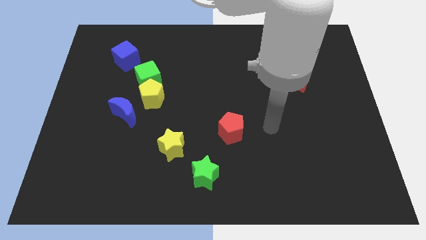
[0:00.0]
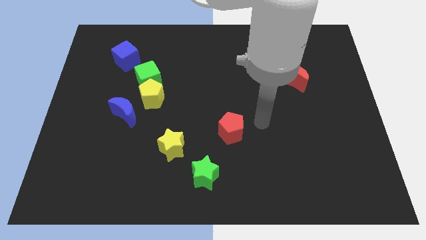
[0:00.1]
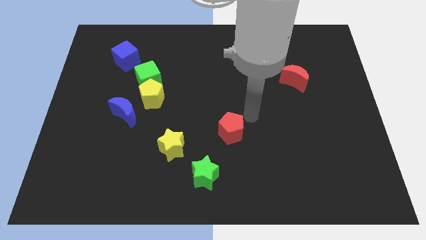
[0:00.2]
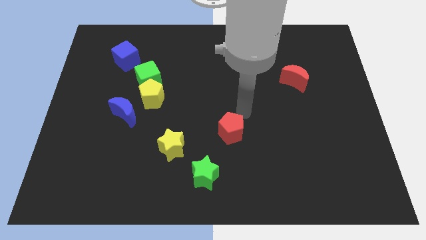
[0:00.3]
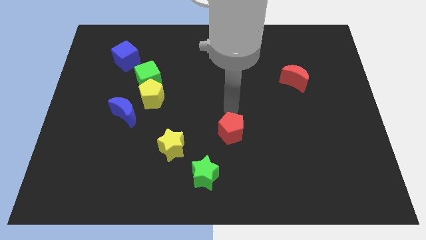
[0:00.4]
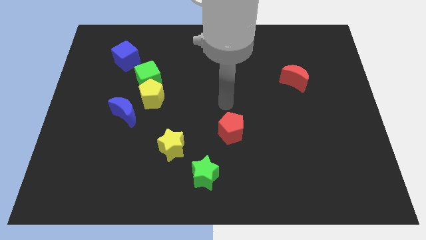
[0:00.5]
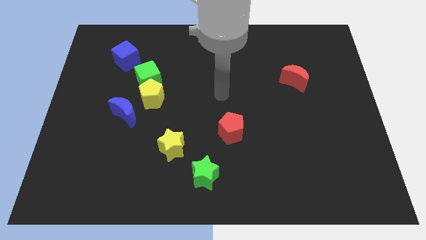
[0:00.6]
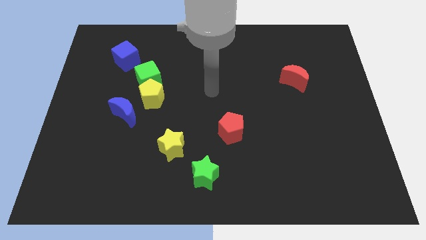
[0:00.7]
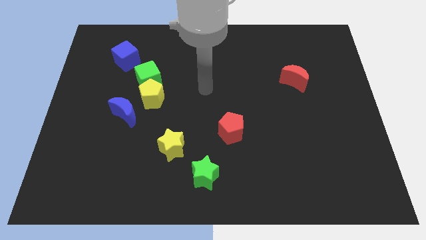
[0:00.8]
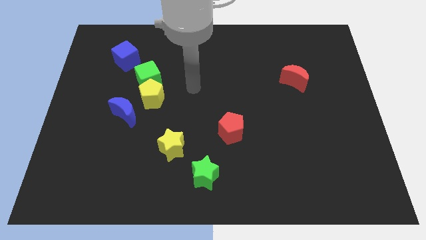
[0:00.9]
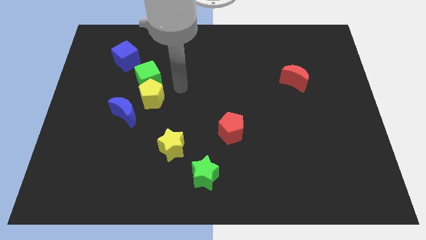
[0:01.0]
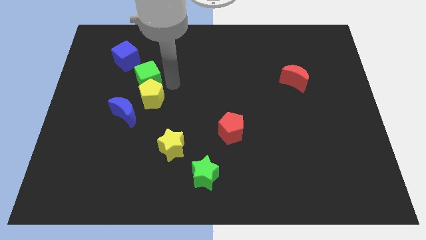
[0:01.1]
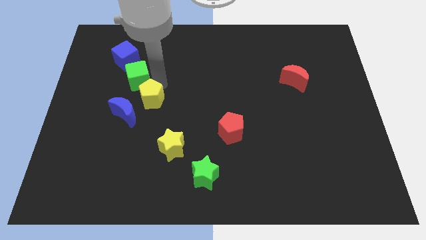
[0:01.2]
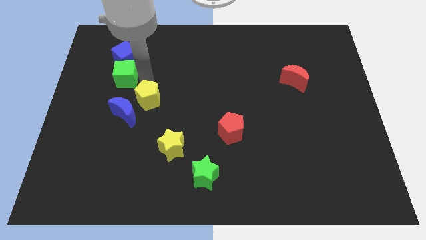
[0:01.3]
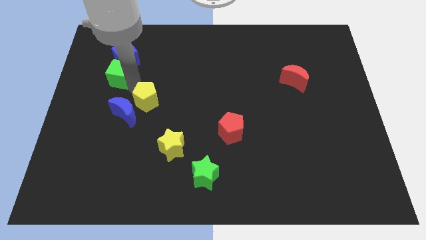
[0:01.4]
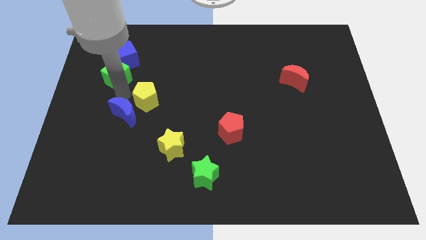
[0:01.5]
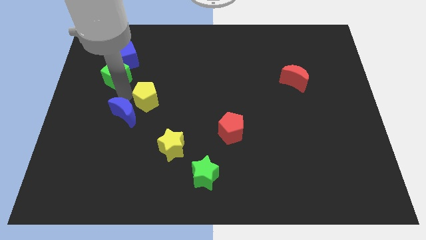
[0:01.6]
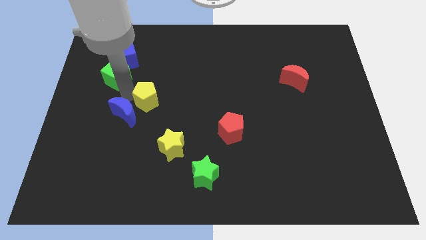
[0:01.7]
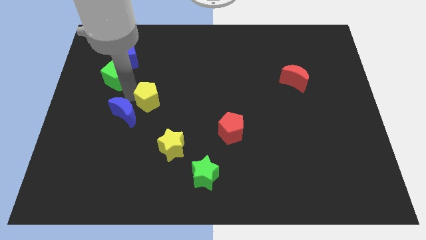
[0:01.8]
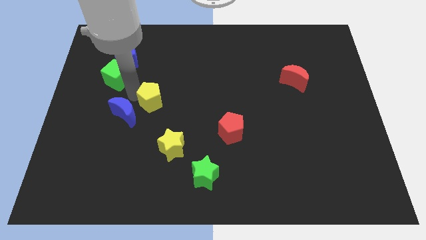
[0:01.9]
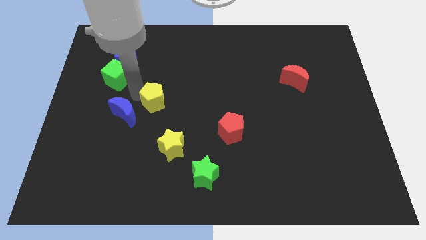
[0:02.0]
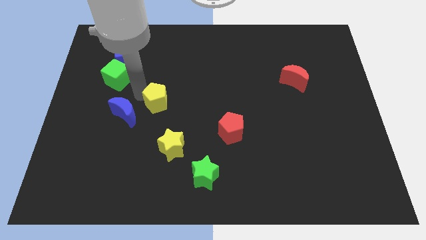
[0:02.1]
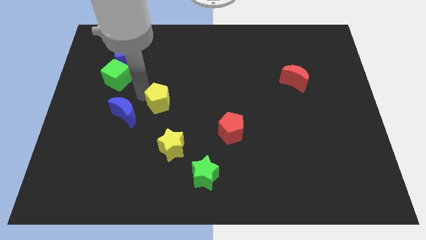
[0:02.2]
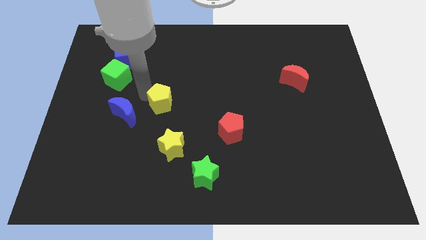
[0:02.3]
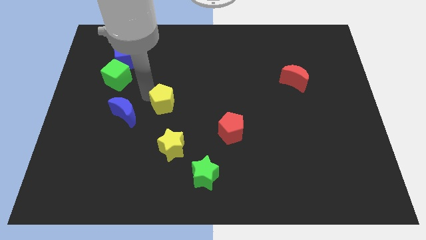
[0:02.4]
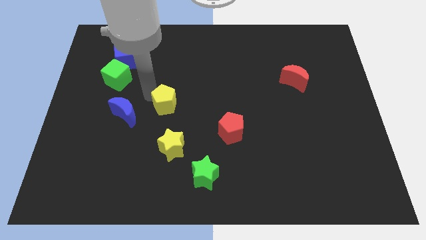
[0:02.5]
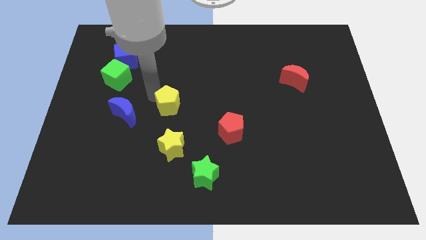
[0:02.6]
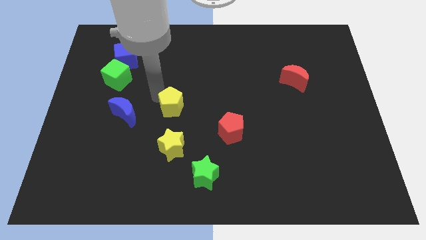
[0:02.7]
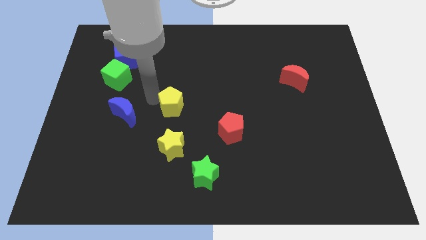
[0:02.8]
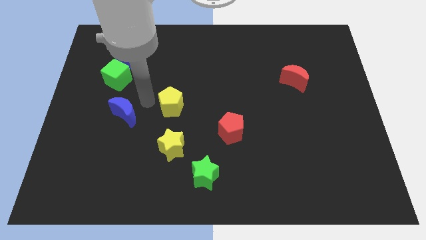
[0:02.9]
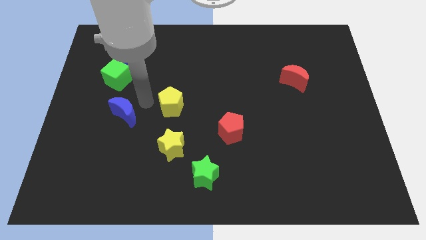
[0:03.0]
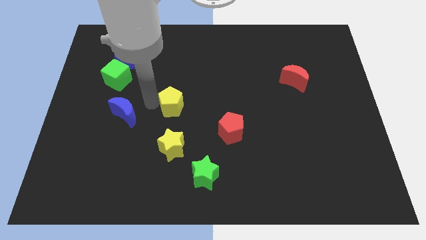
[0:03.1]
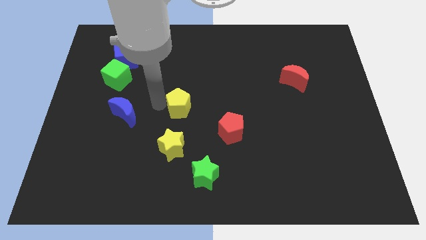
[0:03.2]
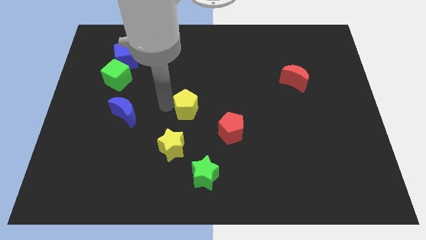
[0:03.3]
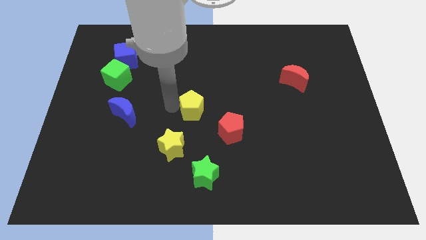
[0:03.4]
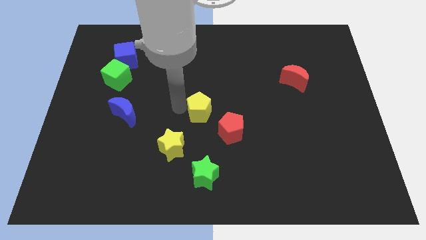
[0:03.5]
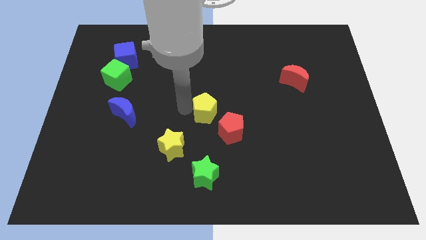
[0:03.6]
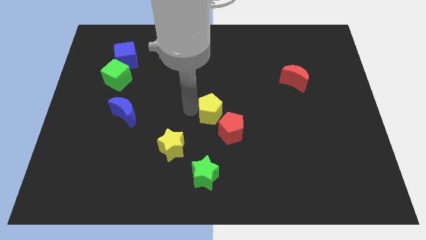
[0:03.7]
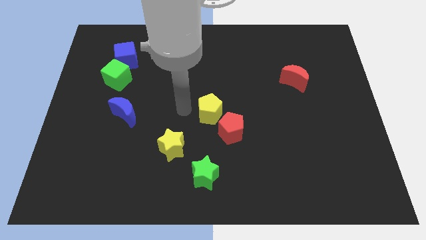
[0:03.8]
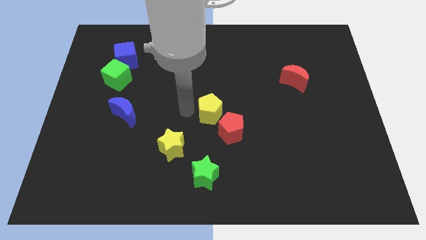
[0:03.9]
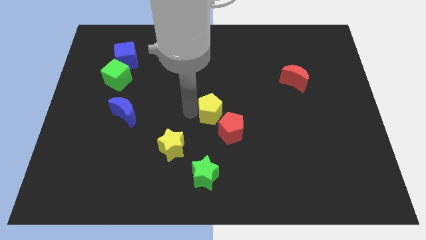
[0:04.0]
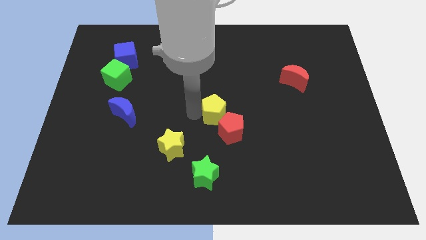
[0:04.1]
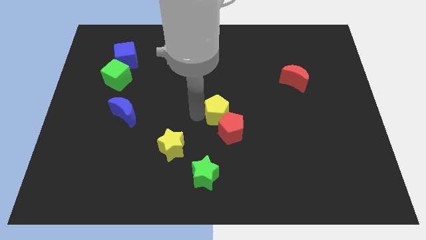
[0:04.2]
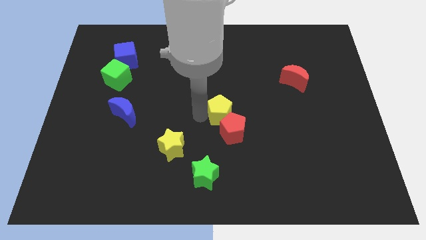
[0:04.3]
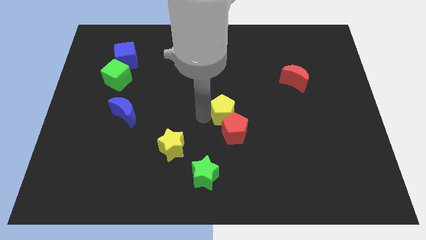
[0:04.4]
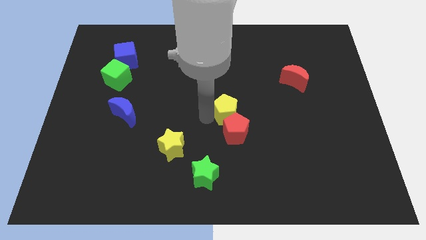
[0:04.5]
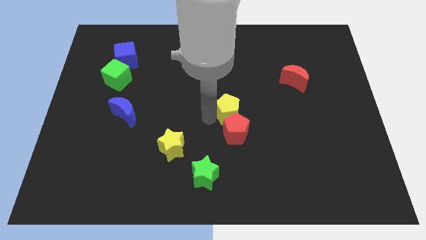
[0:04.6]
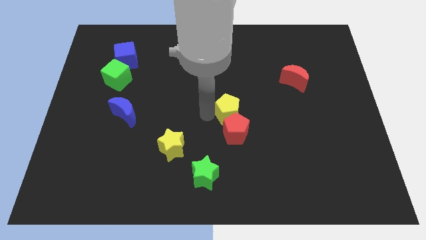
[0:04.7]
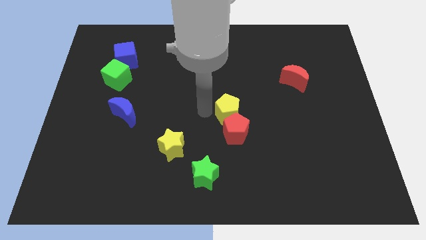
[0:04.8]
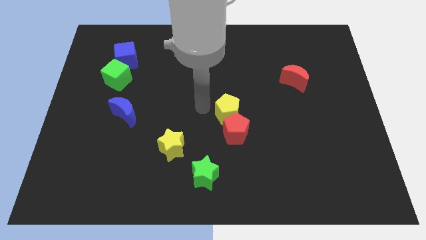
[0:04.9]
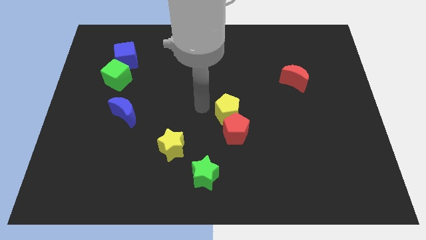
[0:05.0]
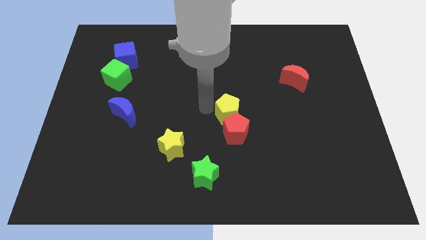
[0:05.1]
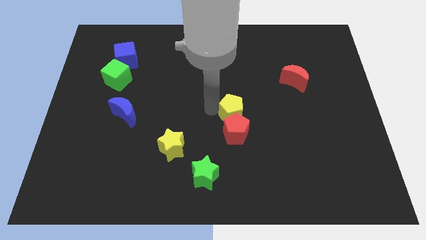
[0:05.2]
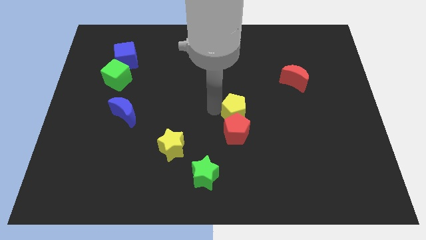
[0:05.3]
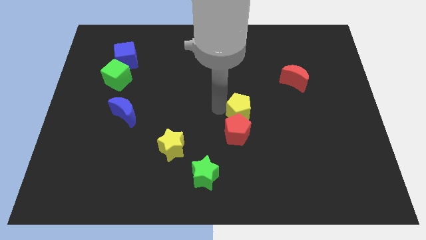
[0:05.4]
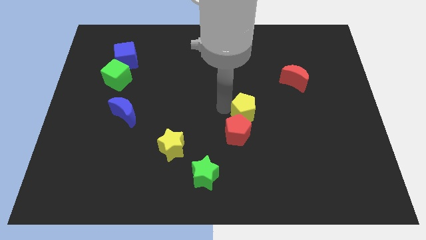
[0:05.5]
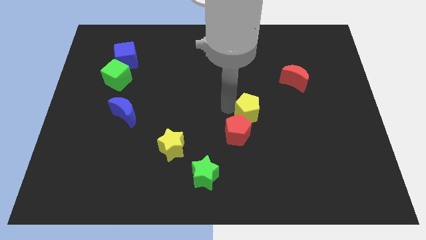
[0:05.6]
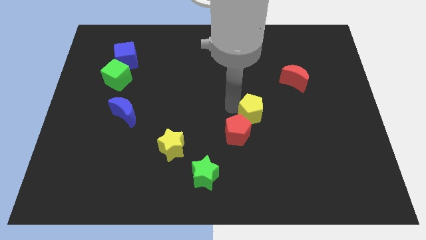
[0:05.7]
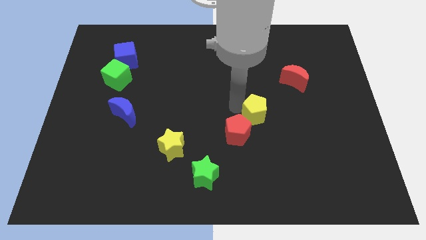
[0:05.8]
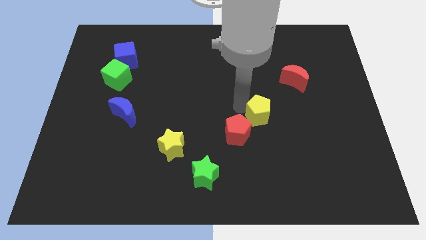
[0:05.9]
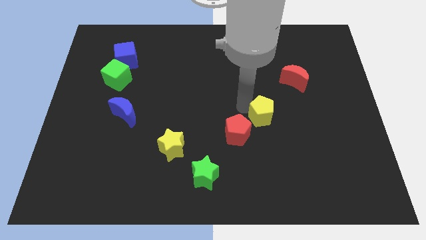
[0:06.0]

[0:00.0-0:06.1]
put the yellow pentagon to the right of the red pentagon

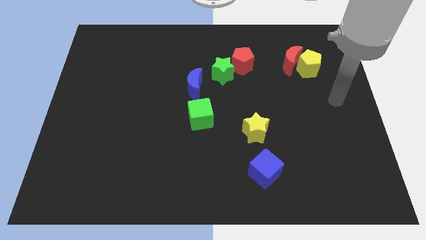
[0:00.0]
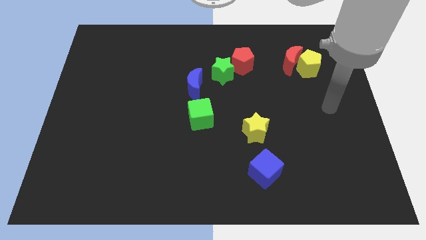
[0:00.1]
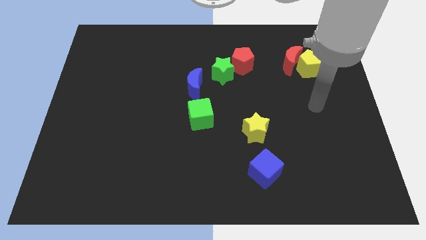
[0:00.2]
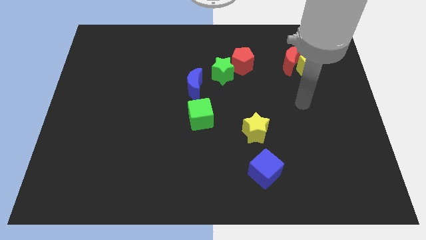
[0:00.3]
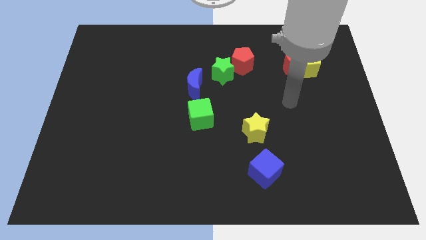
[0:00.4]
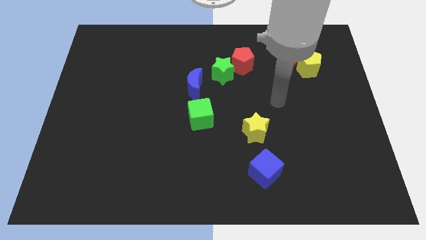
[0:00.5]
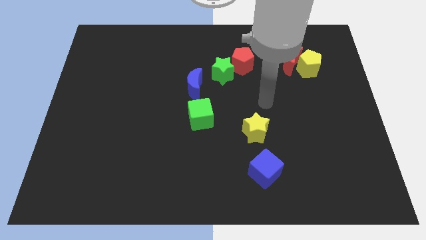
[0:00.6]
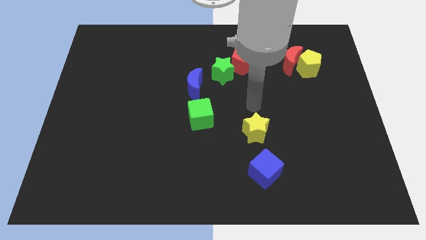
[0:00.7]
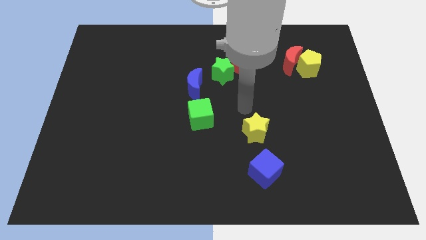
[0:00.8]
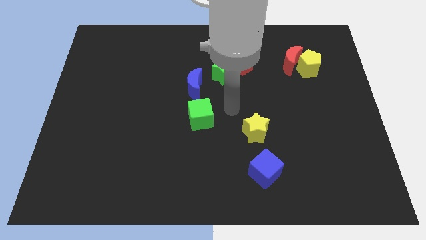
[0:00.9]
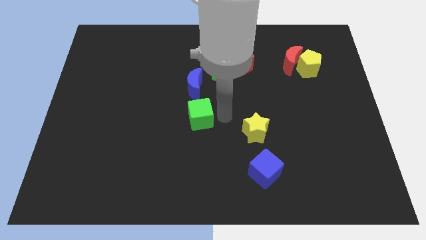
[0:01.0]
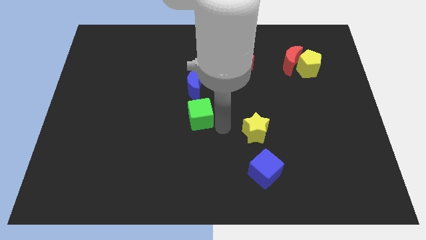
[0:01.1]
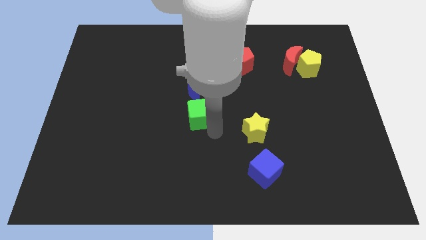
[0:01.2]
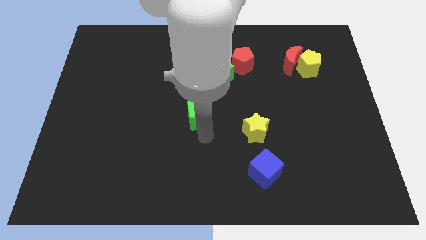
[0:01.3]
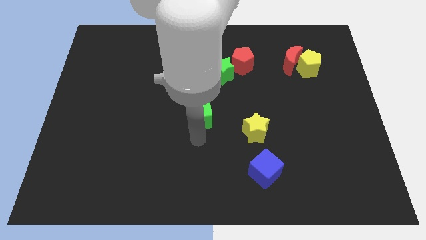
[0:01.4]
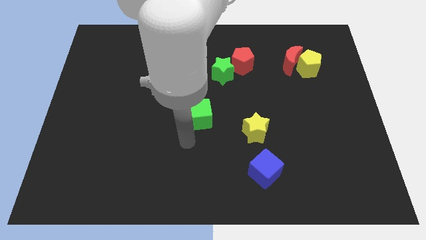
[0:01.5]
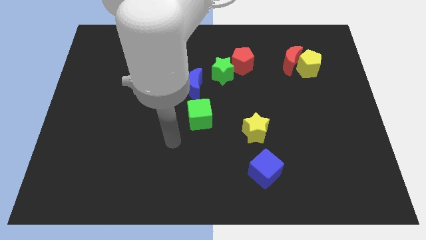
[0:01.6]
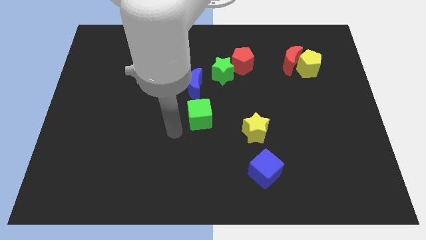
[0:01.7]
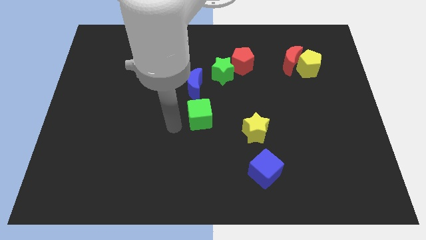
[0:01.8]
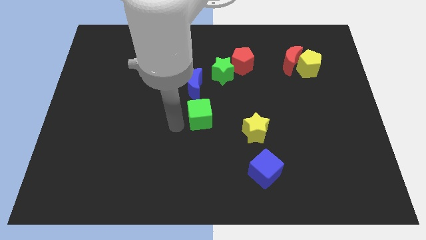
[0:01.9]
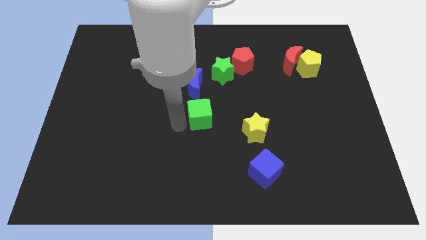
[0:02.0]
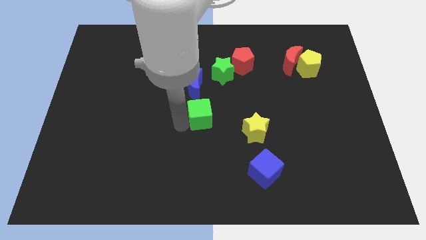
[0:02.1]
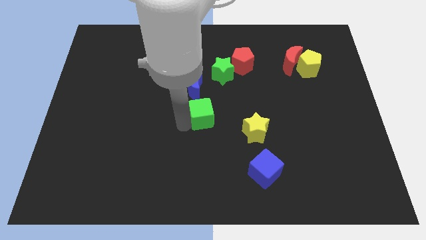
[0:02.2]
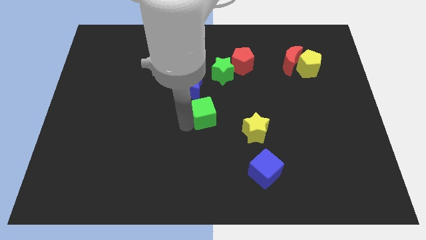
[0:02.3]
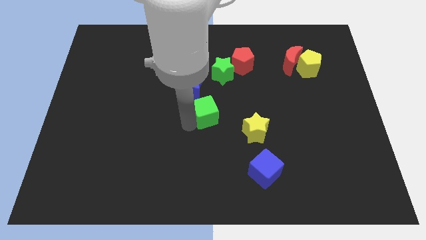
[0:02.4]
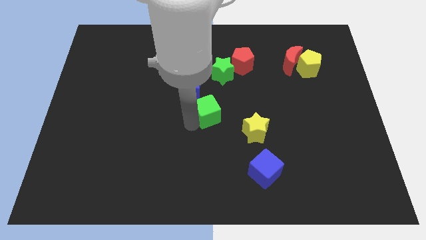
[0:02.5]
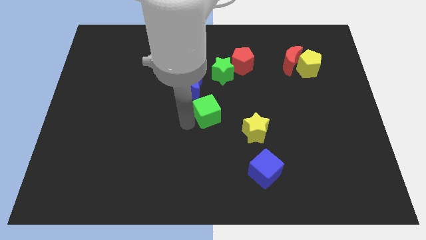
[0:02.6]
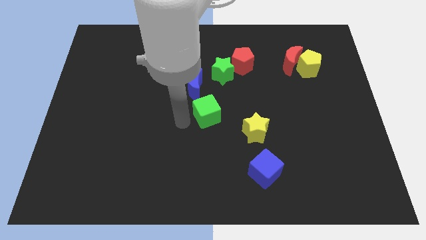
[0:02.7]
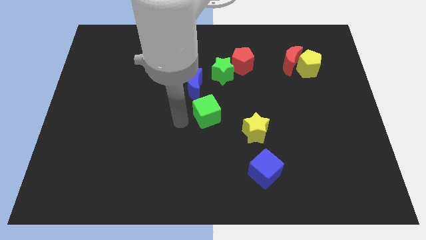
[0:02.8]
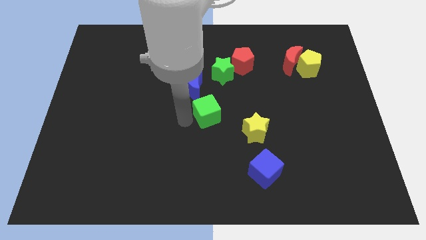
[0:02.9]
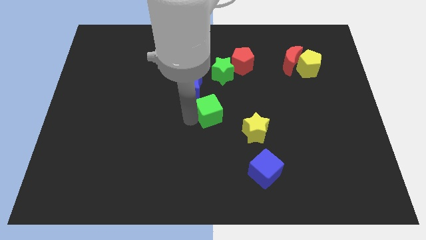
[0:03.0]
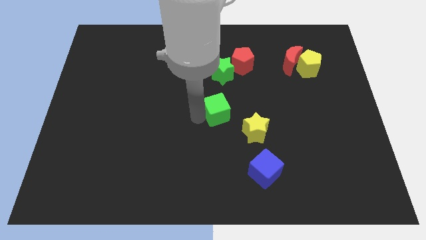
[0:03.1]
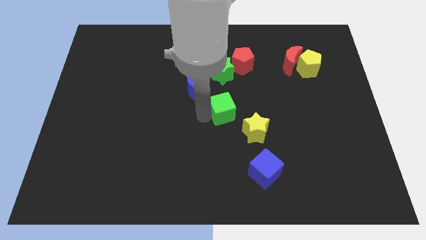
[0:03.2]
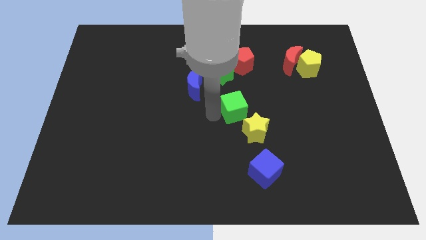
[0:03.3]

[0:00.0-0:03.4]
push the green cube to the top side of the yellow star
